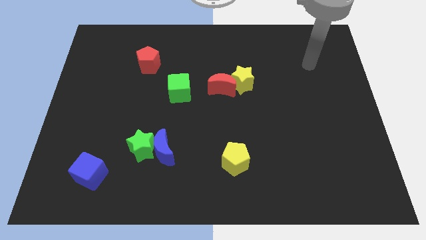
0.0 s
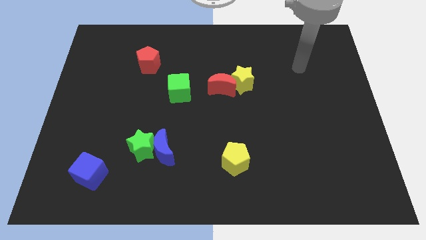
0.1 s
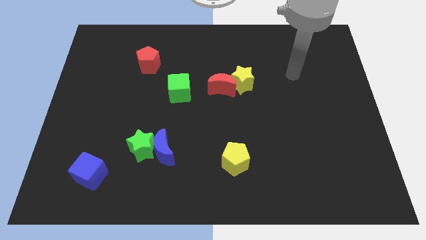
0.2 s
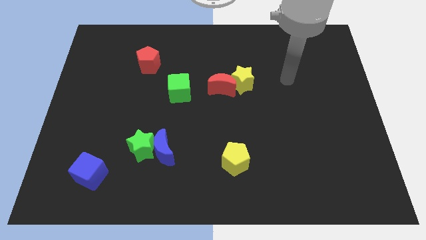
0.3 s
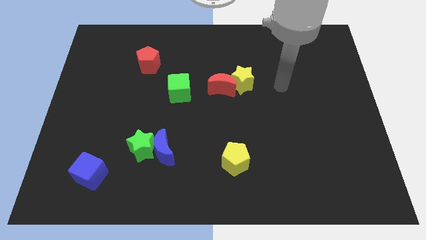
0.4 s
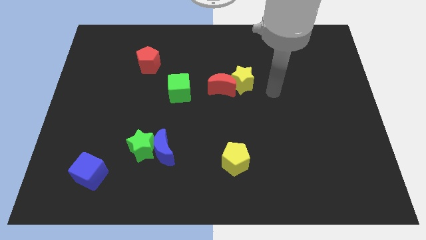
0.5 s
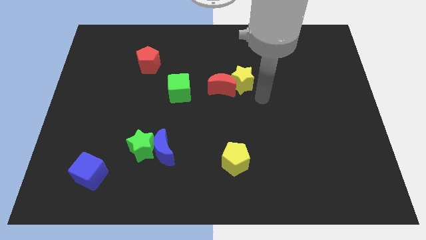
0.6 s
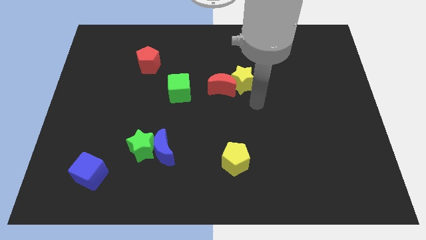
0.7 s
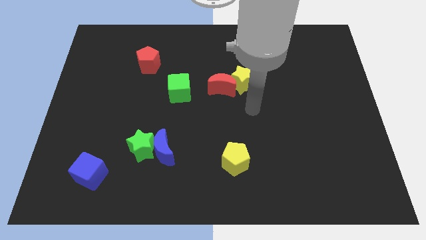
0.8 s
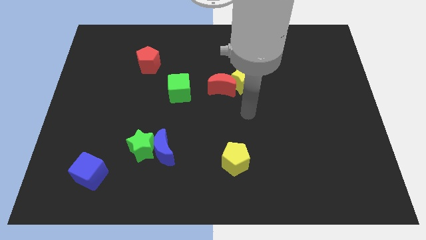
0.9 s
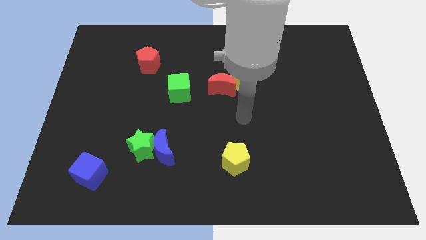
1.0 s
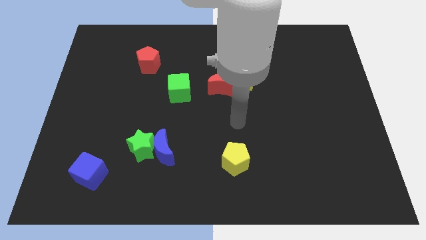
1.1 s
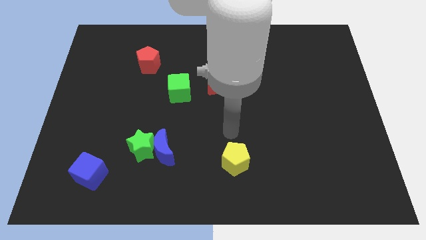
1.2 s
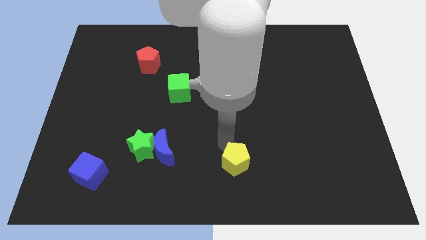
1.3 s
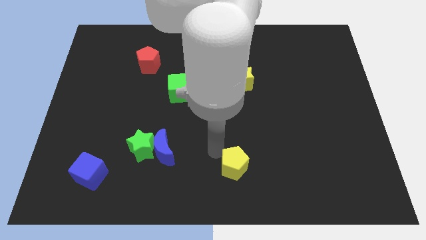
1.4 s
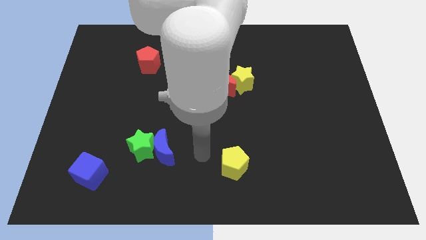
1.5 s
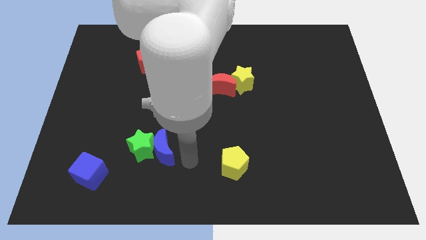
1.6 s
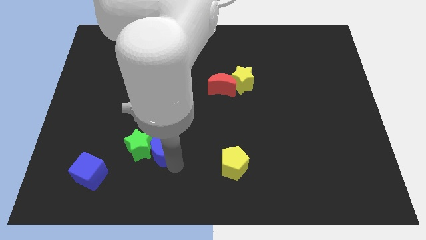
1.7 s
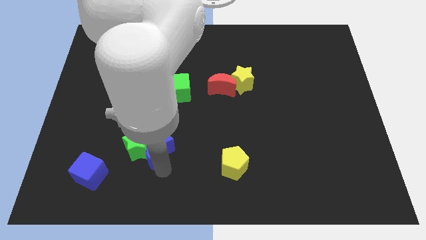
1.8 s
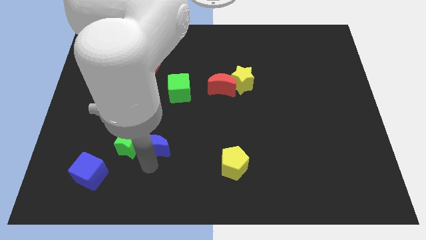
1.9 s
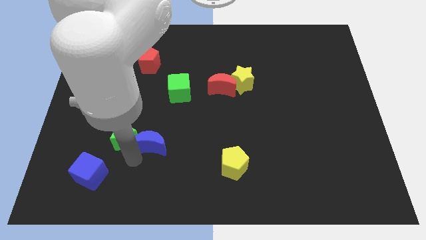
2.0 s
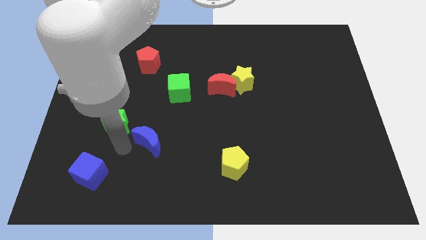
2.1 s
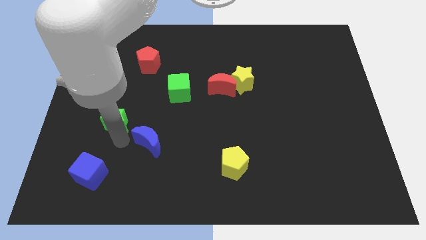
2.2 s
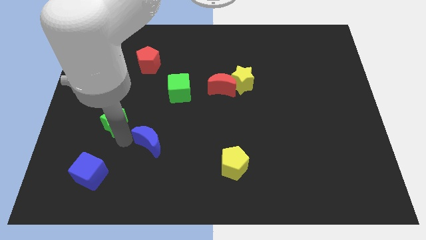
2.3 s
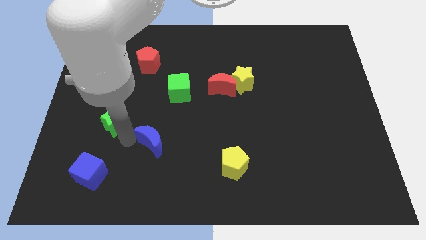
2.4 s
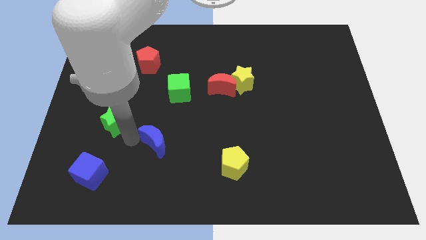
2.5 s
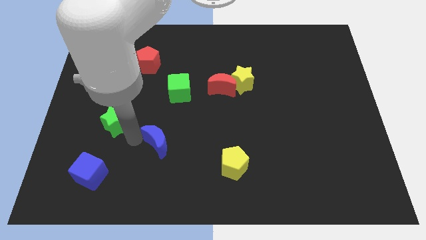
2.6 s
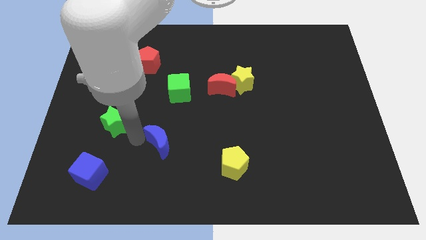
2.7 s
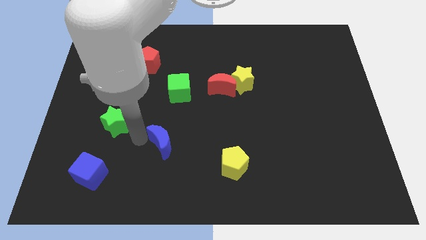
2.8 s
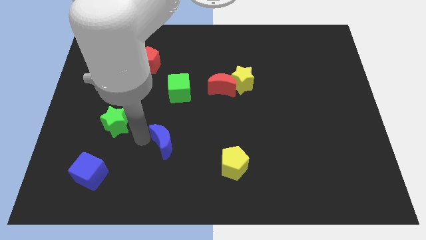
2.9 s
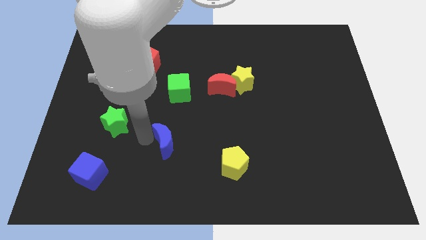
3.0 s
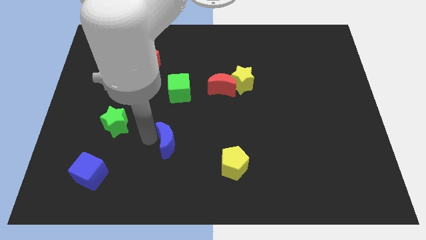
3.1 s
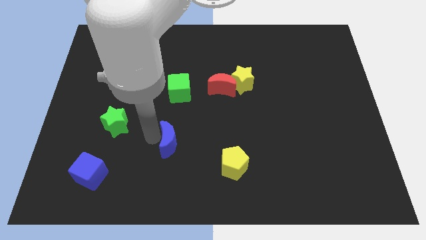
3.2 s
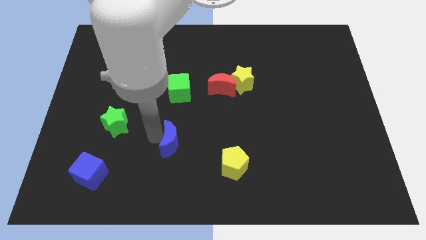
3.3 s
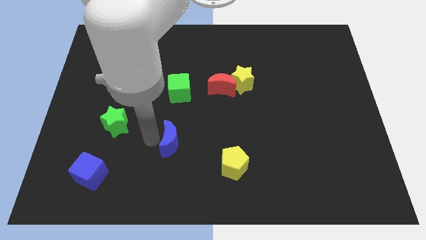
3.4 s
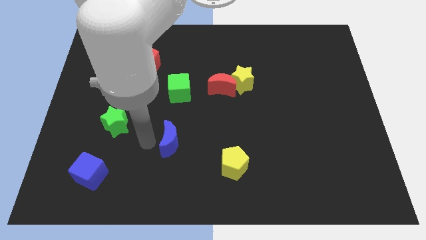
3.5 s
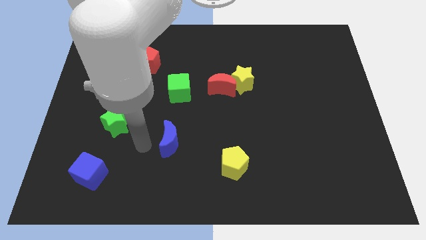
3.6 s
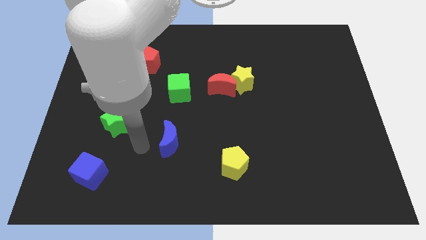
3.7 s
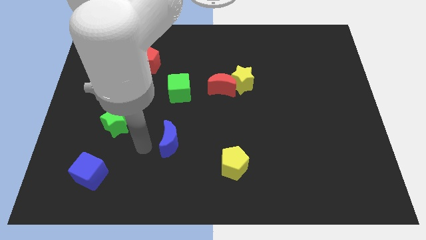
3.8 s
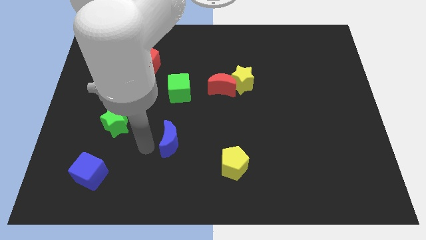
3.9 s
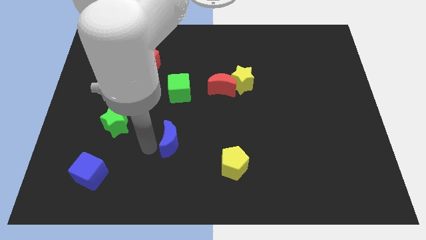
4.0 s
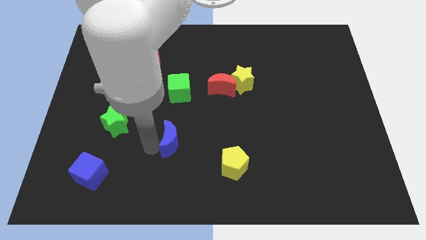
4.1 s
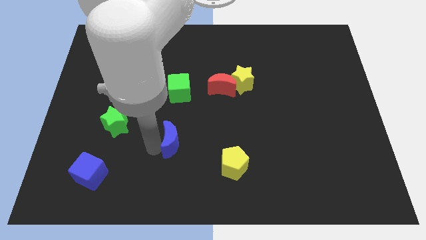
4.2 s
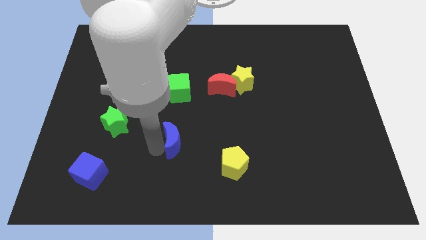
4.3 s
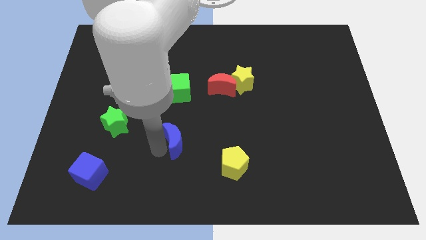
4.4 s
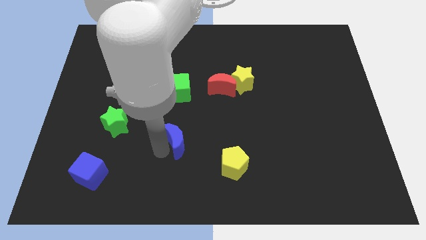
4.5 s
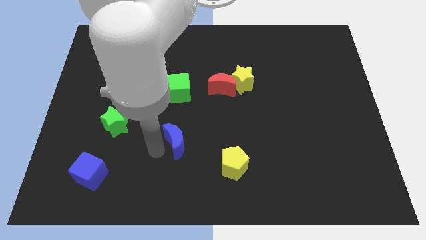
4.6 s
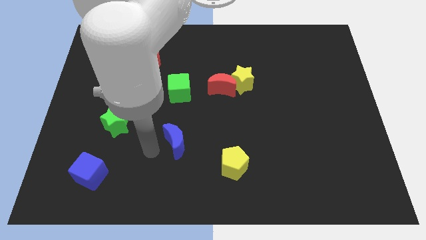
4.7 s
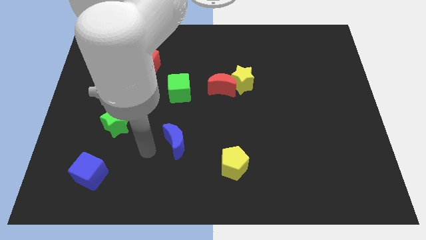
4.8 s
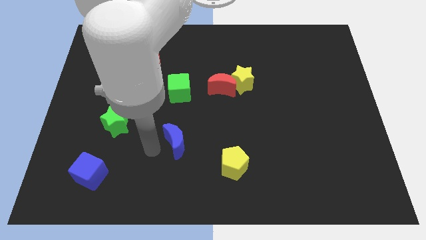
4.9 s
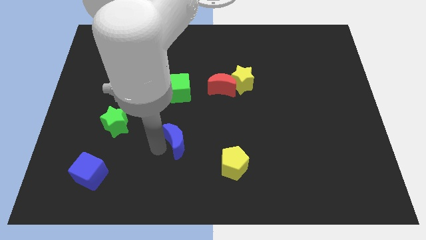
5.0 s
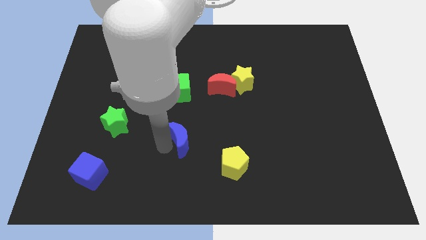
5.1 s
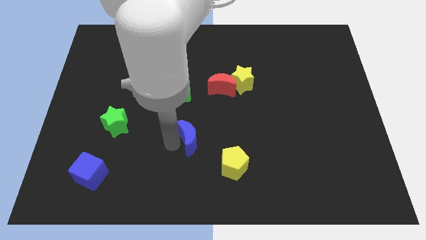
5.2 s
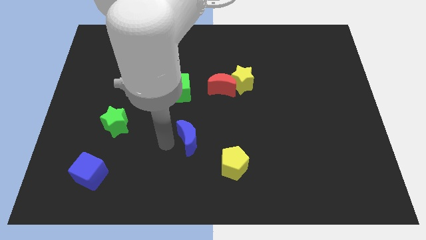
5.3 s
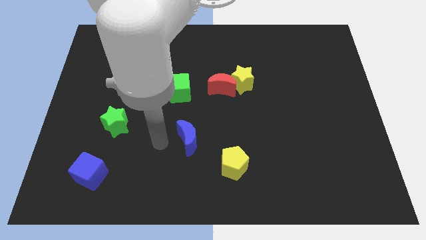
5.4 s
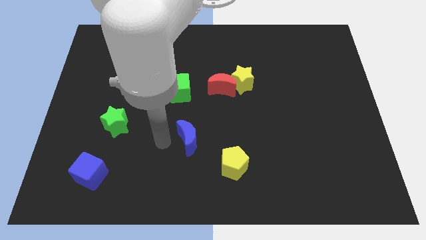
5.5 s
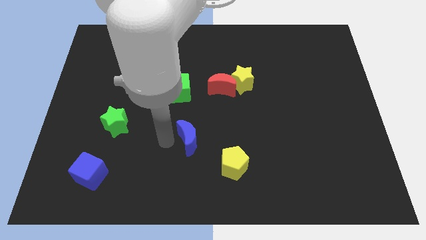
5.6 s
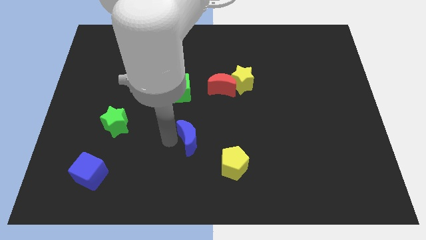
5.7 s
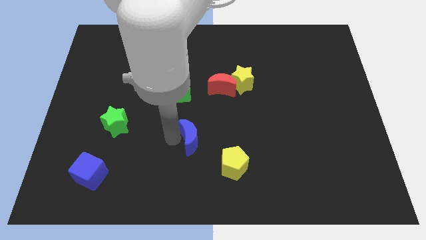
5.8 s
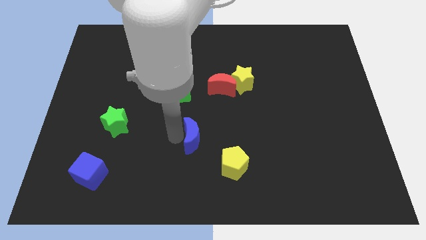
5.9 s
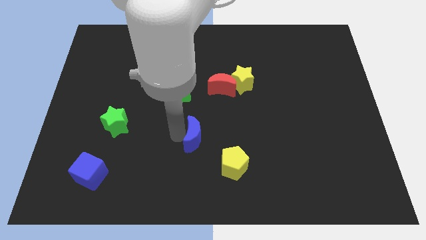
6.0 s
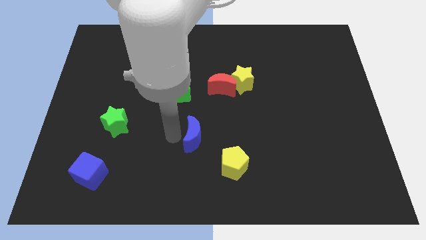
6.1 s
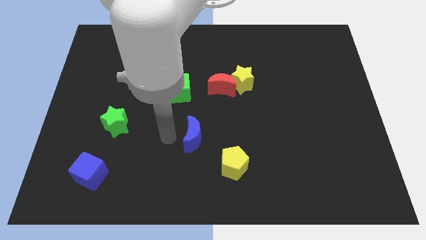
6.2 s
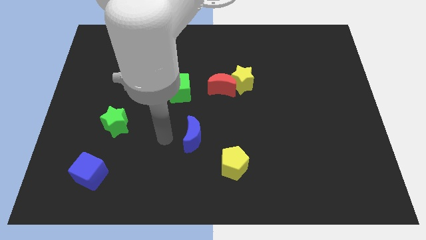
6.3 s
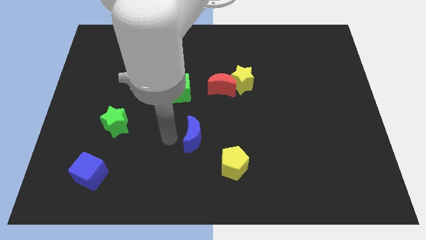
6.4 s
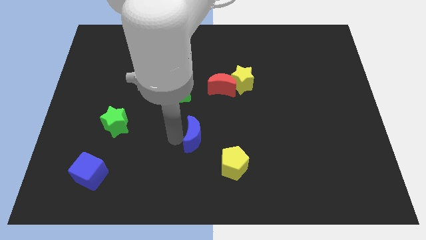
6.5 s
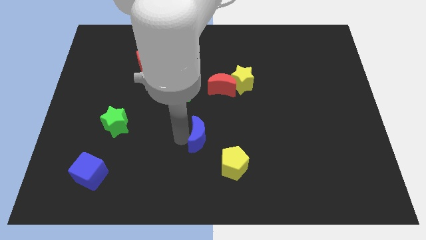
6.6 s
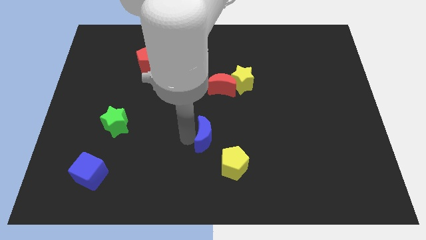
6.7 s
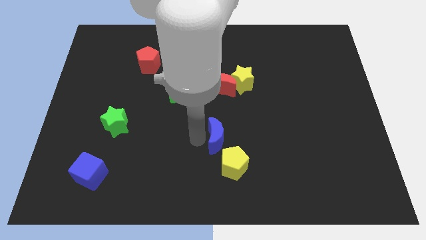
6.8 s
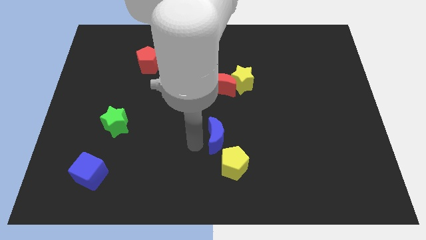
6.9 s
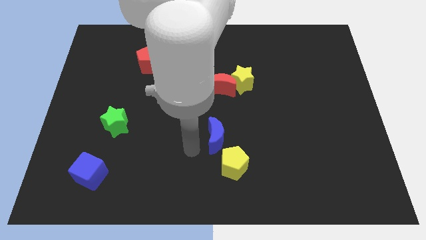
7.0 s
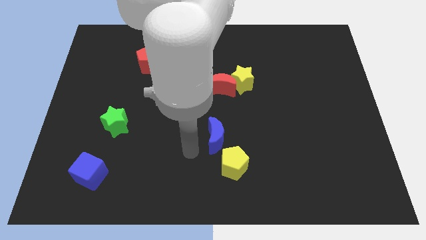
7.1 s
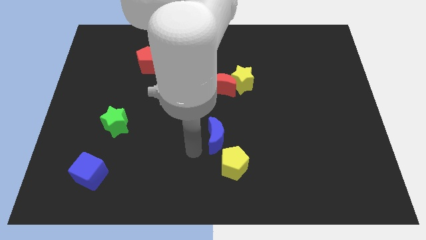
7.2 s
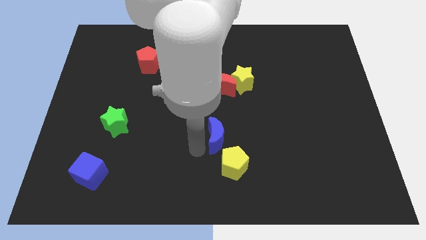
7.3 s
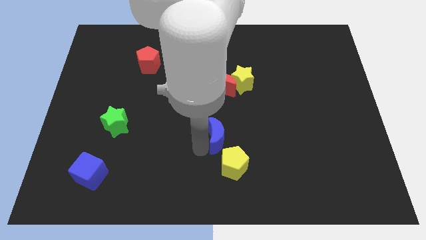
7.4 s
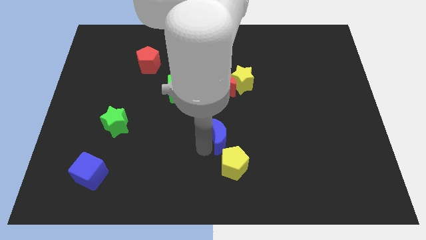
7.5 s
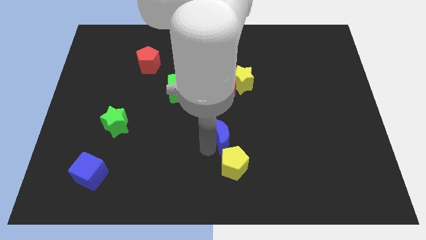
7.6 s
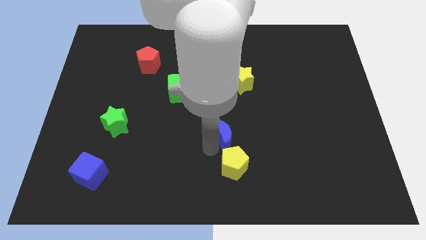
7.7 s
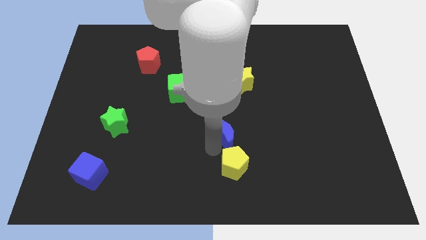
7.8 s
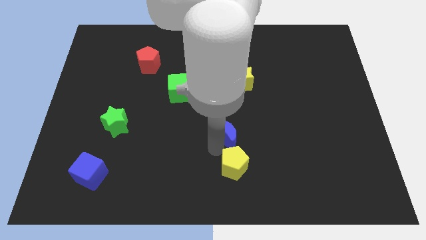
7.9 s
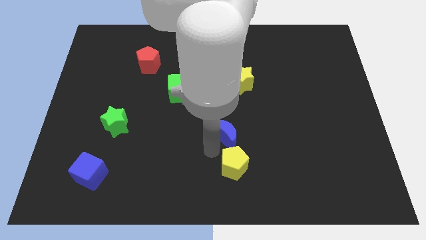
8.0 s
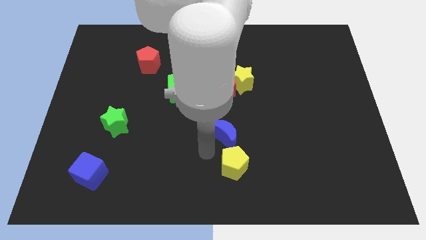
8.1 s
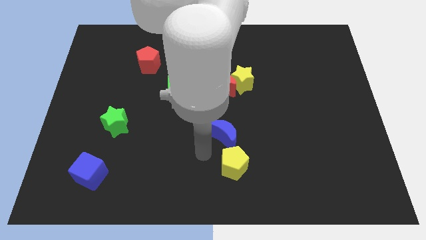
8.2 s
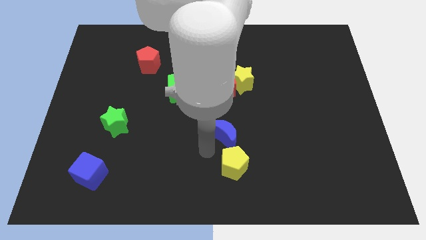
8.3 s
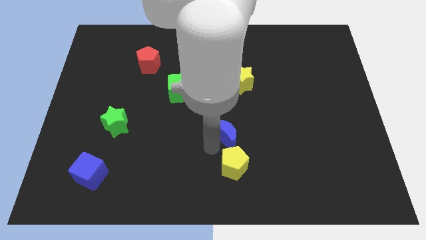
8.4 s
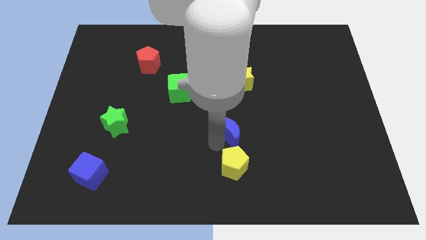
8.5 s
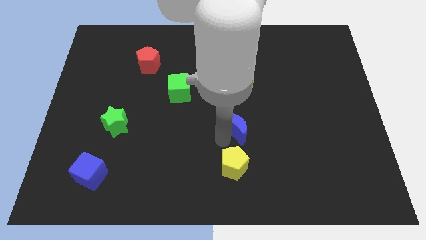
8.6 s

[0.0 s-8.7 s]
put the blue moon to the bottom side of the yellow star
